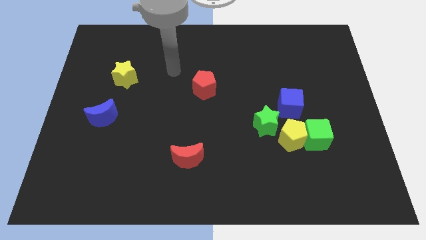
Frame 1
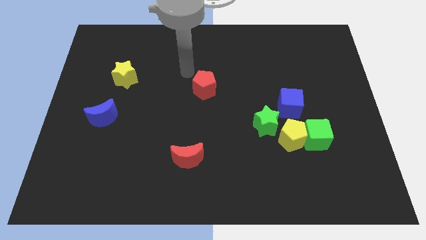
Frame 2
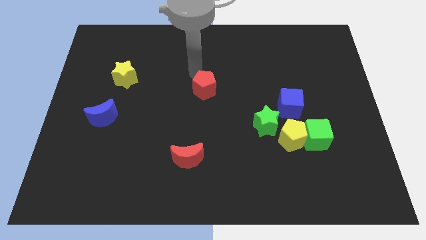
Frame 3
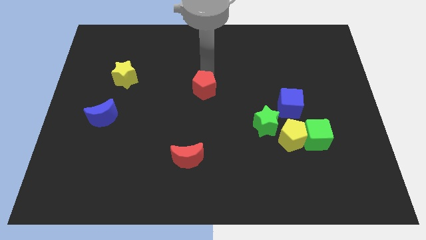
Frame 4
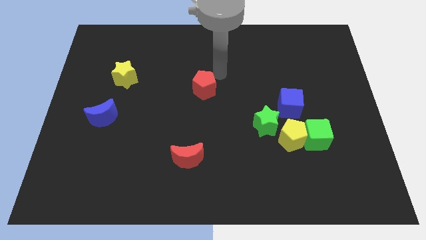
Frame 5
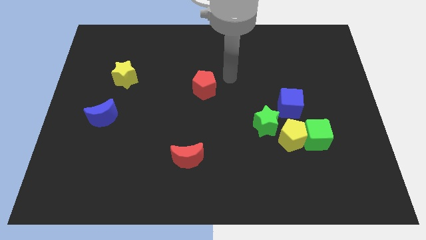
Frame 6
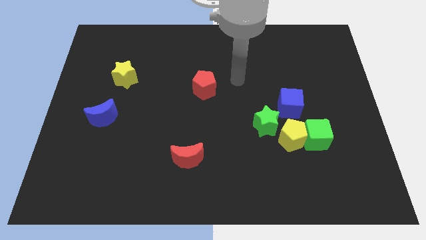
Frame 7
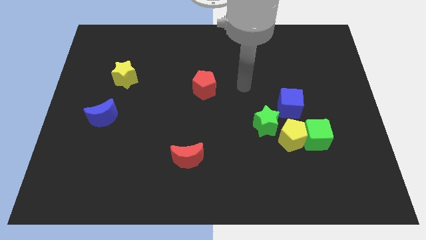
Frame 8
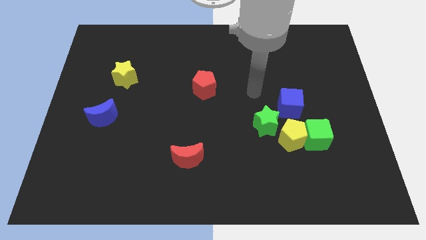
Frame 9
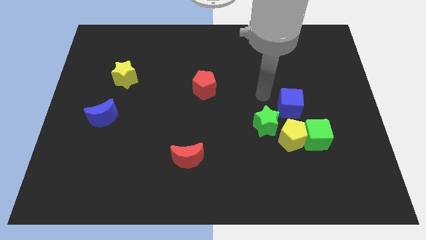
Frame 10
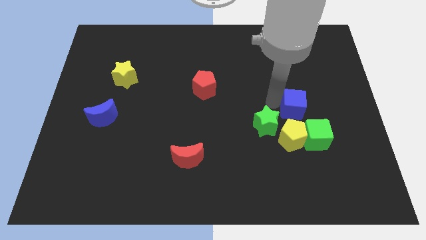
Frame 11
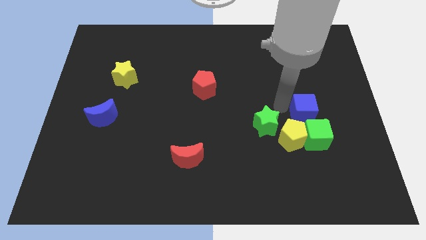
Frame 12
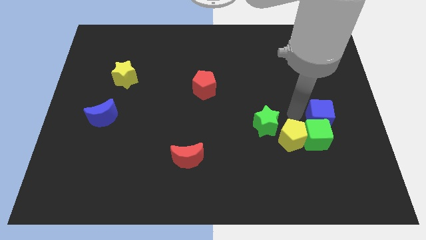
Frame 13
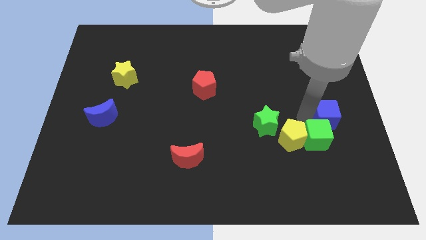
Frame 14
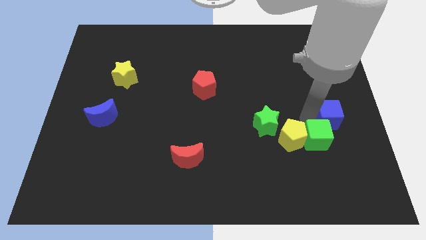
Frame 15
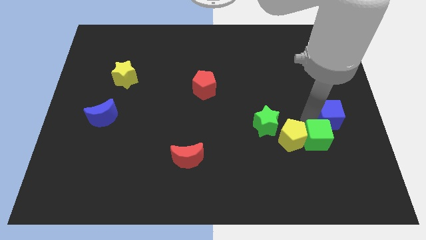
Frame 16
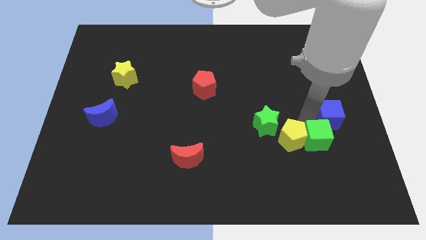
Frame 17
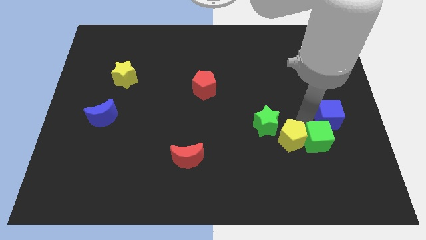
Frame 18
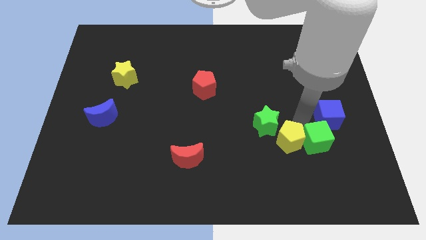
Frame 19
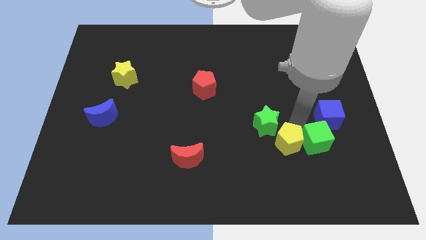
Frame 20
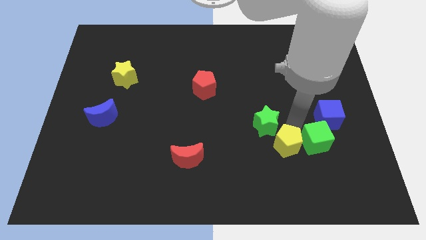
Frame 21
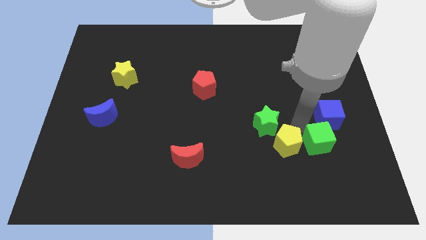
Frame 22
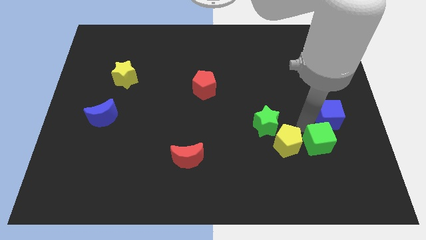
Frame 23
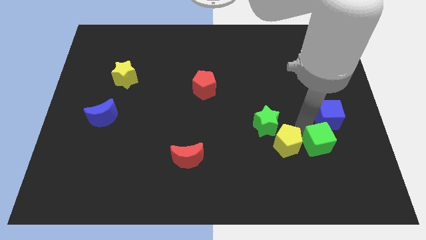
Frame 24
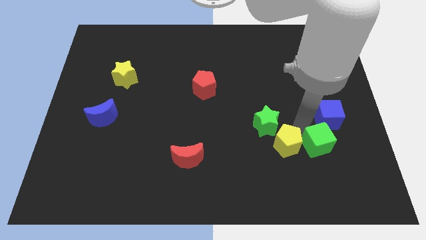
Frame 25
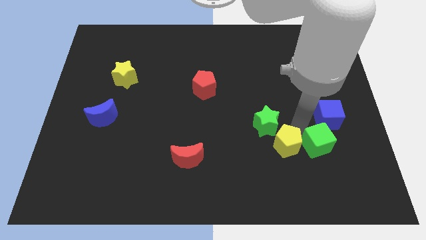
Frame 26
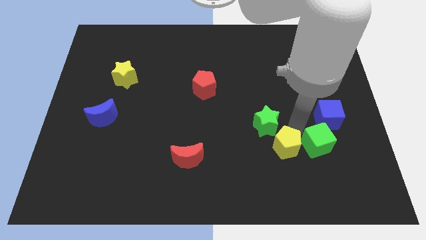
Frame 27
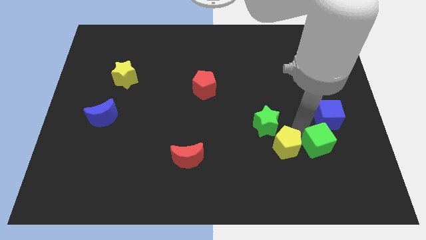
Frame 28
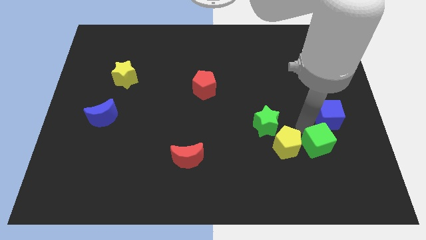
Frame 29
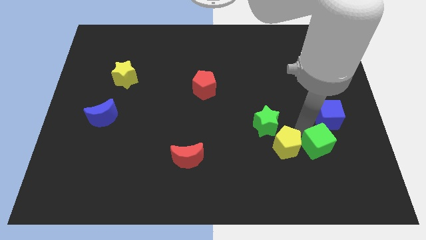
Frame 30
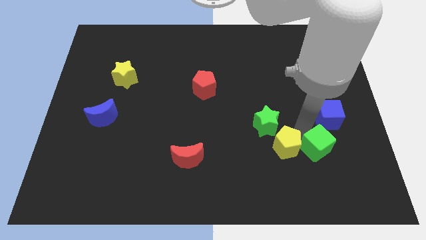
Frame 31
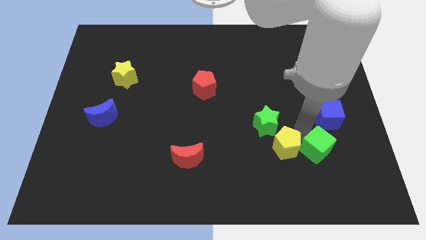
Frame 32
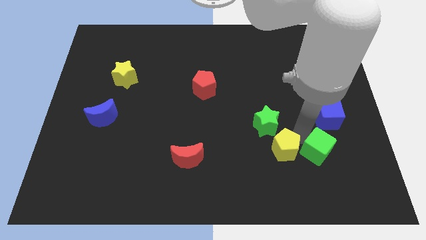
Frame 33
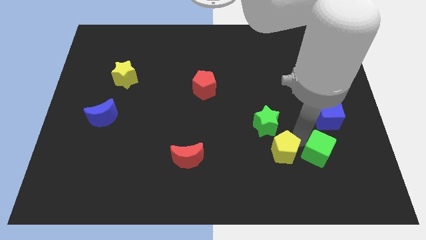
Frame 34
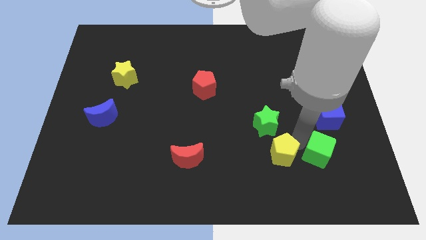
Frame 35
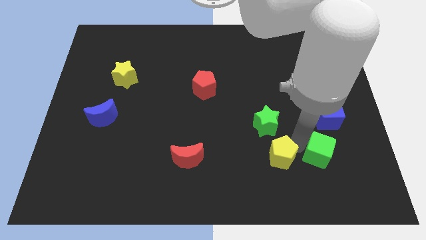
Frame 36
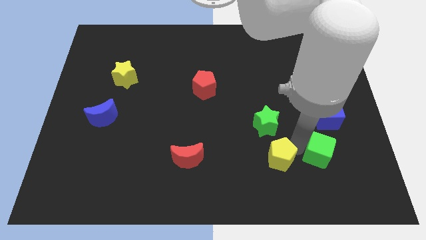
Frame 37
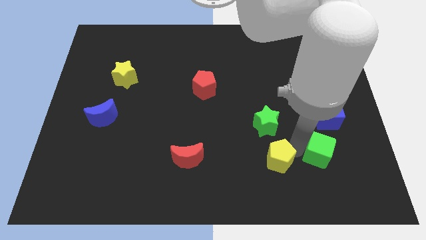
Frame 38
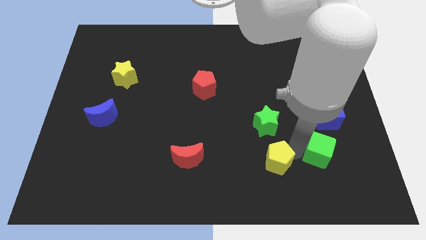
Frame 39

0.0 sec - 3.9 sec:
move the yellow pentagon away from the group

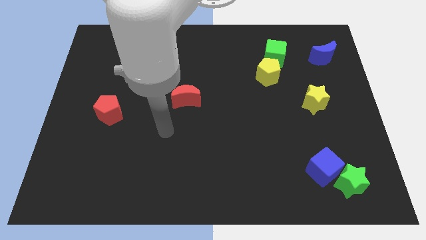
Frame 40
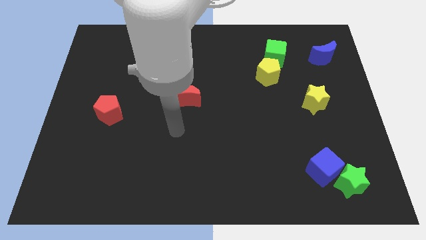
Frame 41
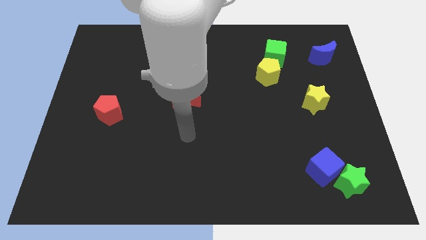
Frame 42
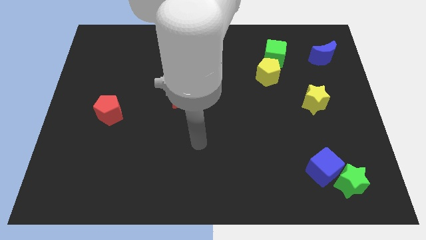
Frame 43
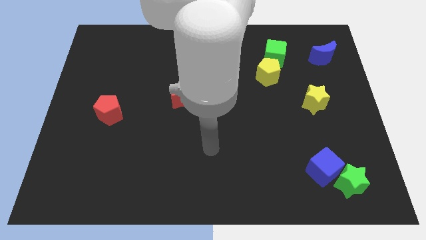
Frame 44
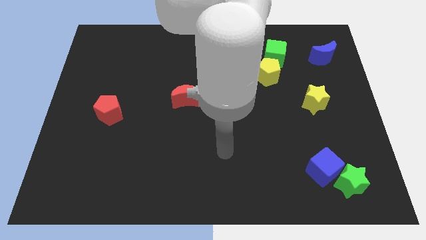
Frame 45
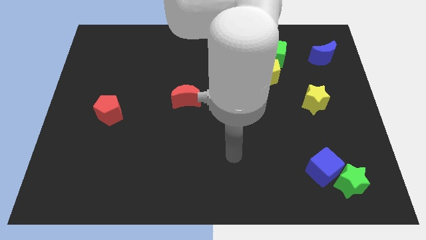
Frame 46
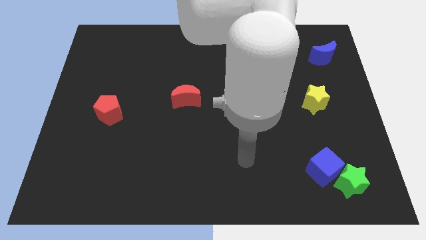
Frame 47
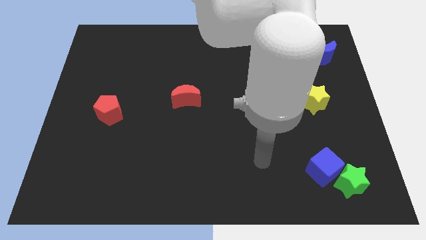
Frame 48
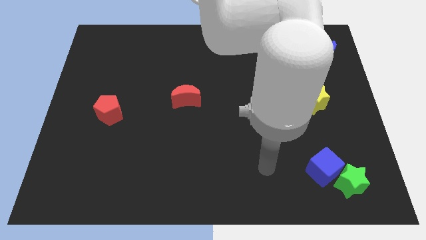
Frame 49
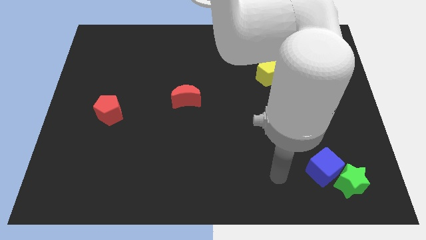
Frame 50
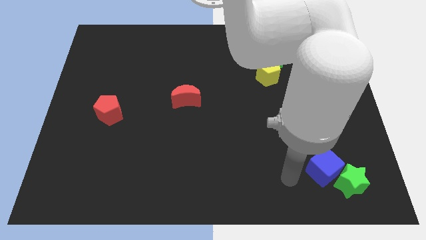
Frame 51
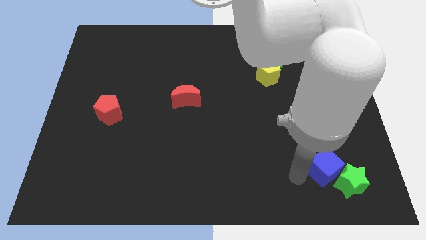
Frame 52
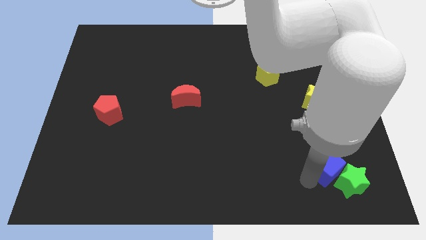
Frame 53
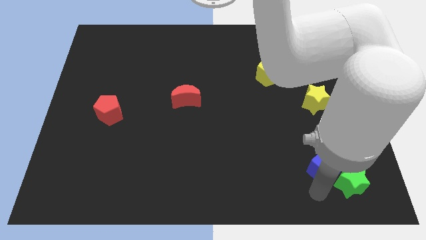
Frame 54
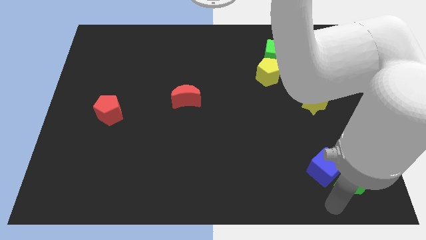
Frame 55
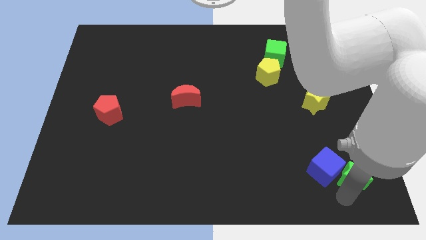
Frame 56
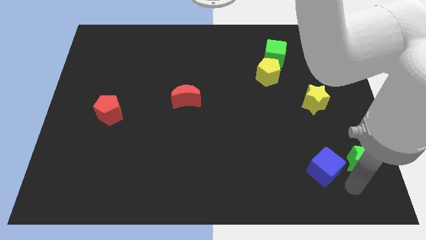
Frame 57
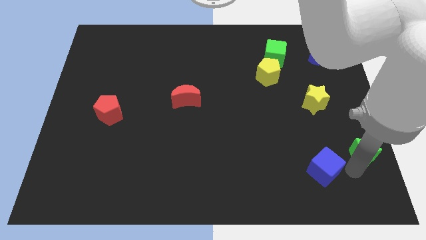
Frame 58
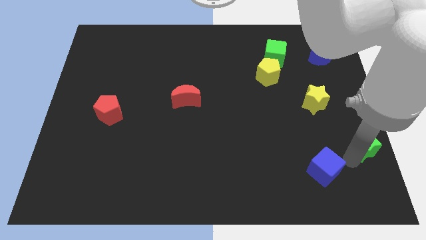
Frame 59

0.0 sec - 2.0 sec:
separate the blue cube from the green star

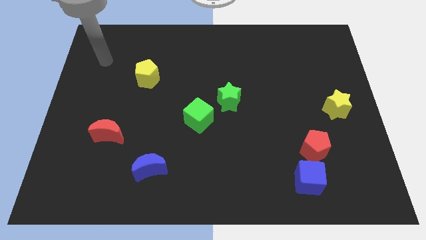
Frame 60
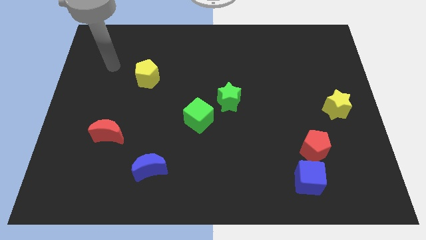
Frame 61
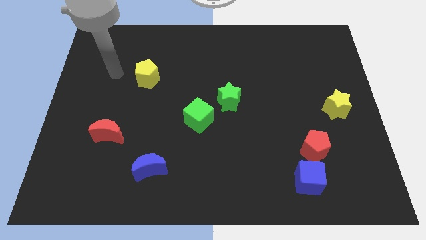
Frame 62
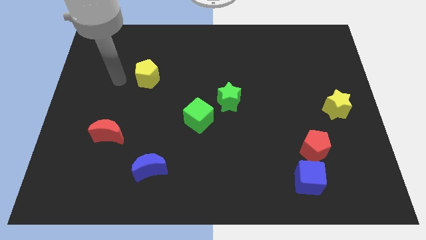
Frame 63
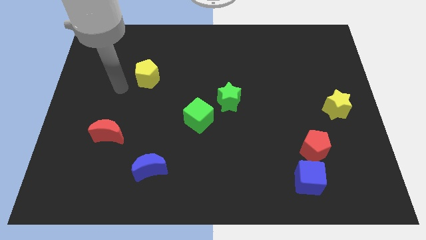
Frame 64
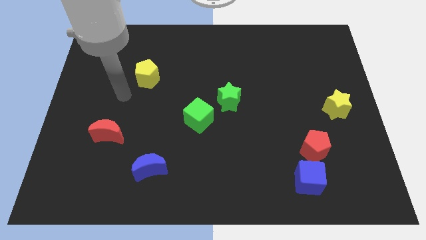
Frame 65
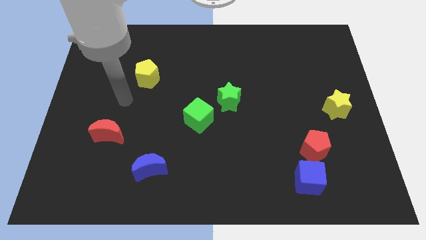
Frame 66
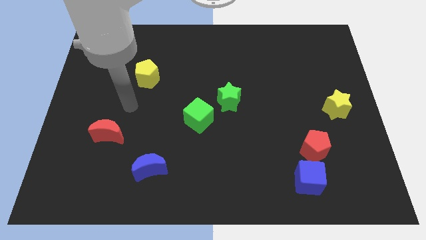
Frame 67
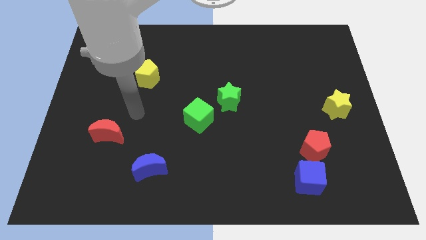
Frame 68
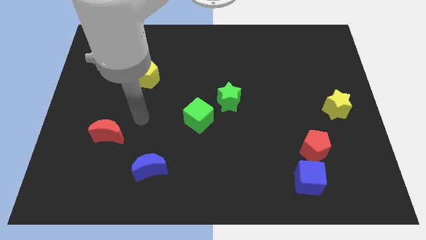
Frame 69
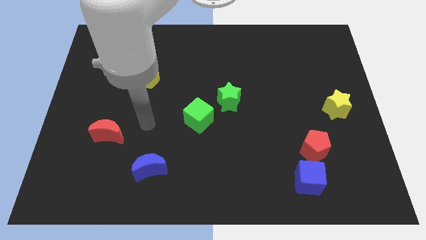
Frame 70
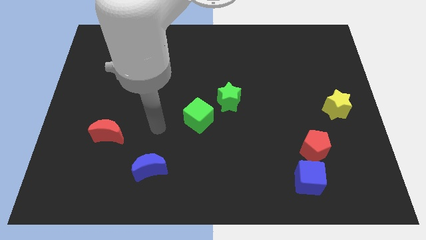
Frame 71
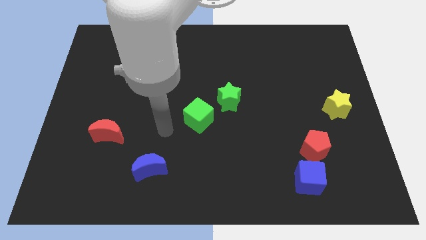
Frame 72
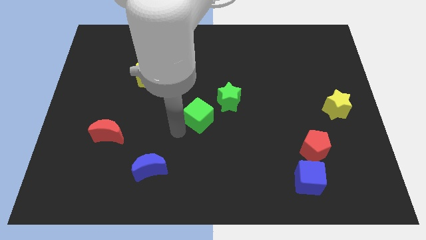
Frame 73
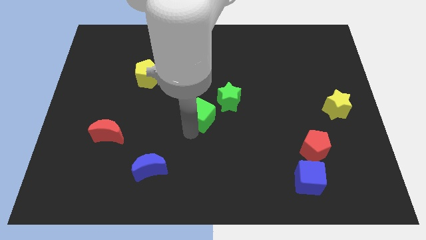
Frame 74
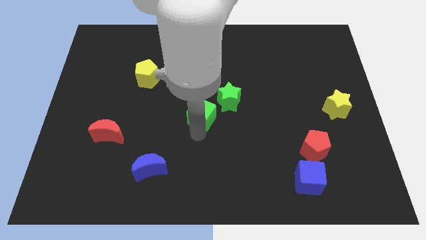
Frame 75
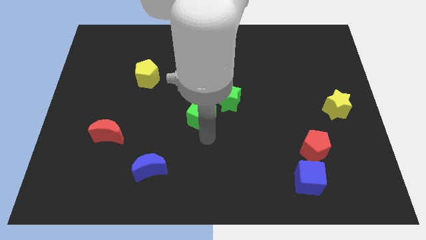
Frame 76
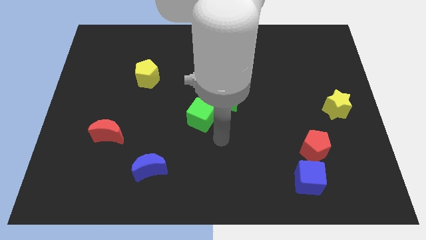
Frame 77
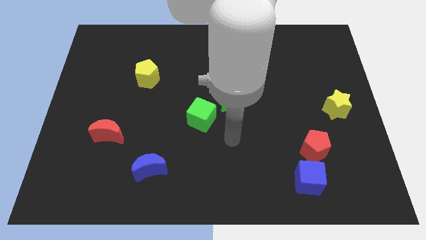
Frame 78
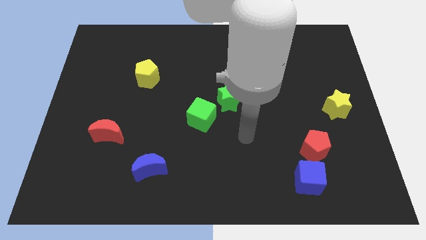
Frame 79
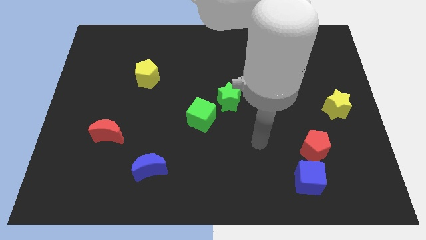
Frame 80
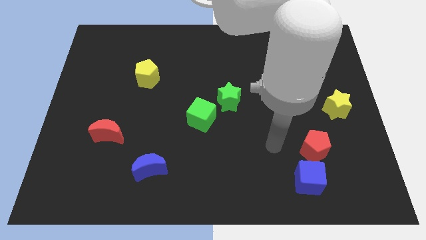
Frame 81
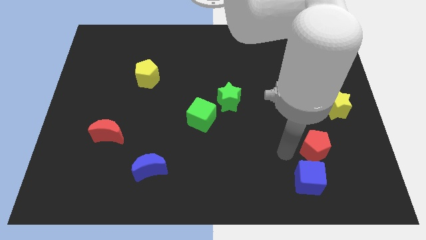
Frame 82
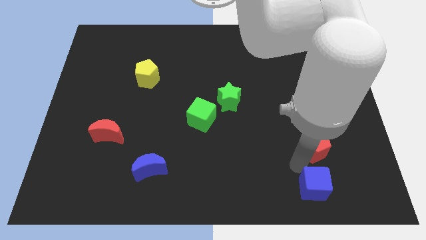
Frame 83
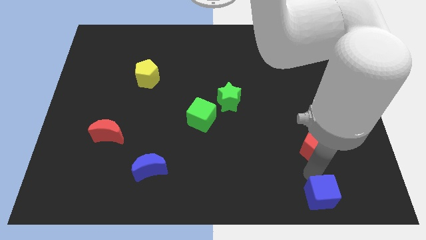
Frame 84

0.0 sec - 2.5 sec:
separate the red pentagon from the blue cube

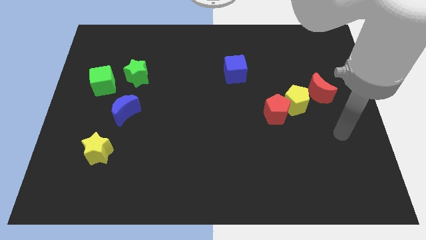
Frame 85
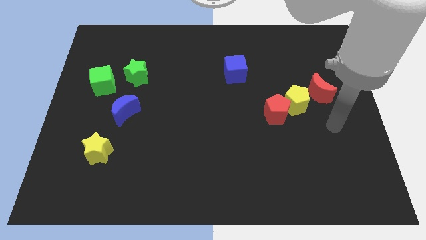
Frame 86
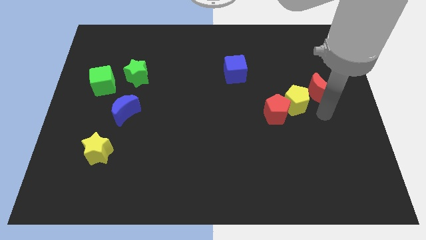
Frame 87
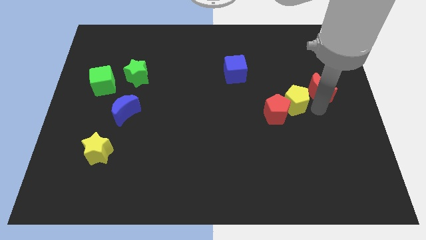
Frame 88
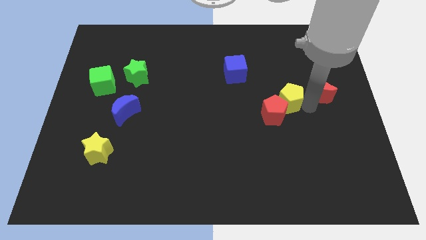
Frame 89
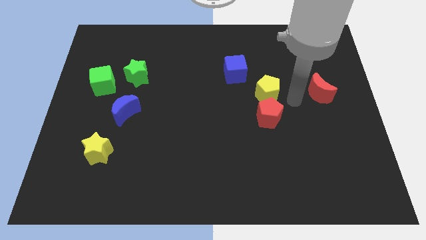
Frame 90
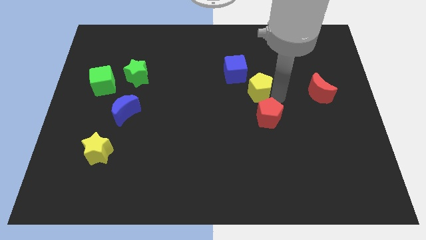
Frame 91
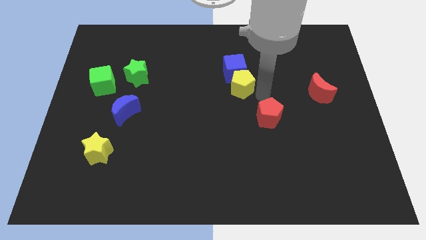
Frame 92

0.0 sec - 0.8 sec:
move the red pentagon away from the yellow pentagon

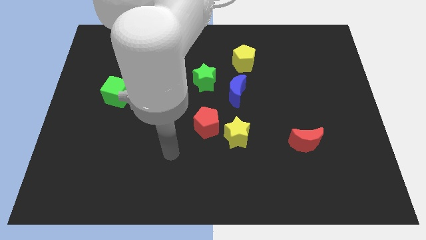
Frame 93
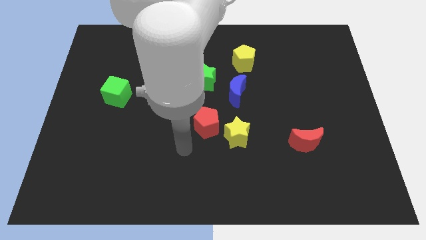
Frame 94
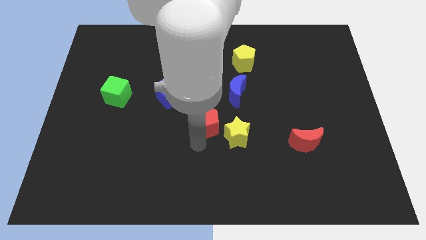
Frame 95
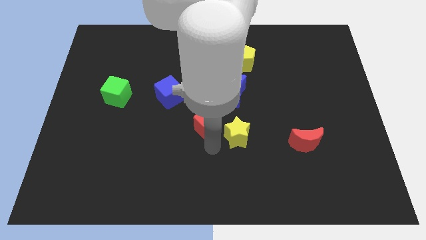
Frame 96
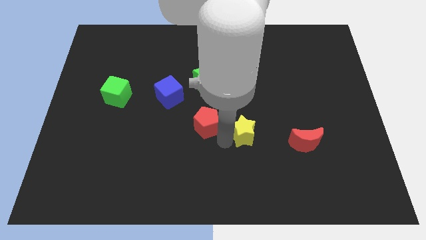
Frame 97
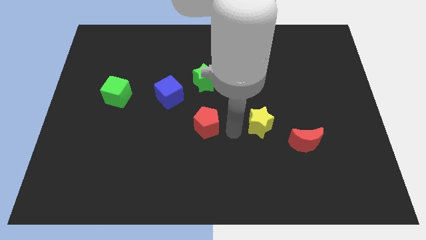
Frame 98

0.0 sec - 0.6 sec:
move the red pentagon away from the yellow star
